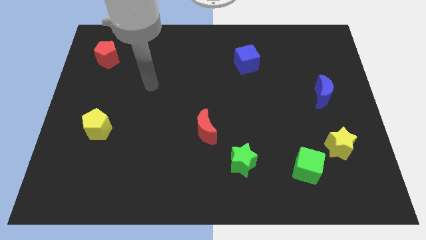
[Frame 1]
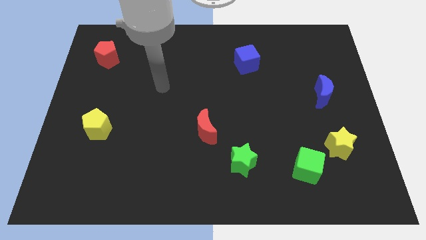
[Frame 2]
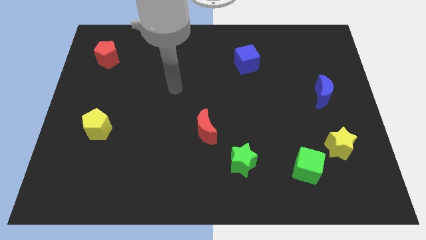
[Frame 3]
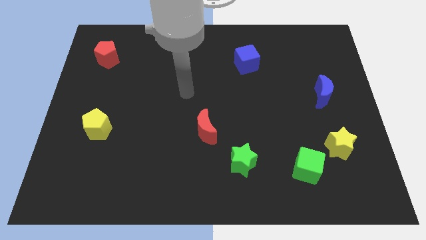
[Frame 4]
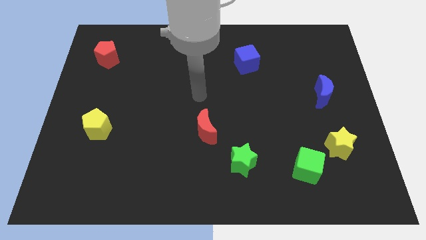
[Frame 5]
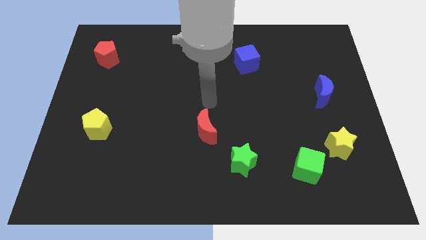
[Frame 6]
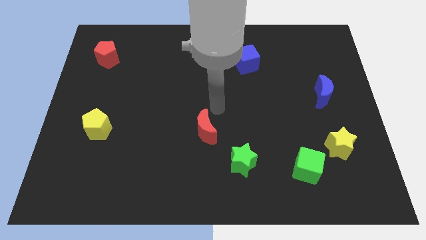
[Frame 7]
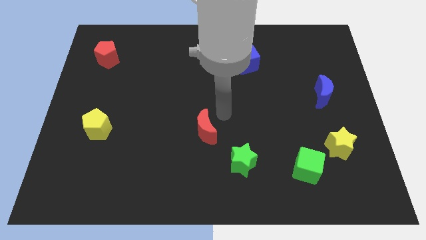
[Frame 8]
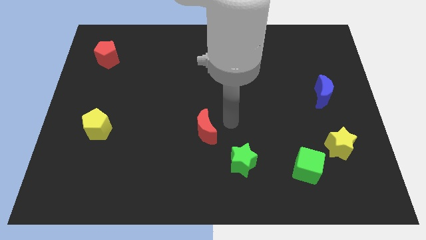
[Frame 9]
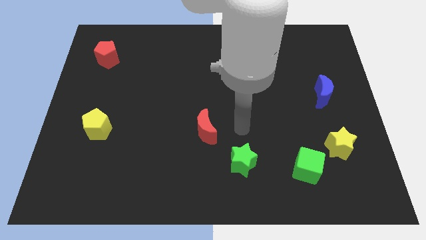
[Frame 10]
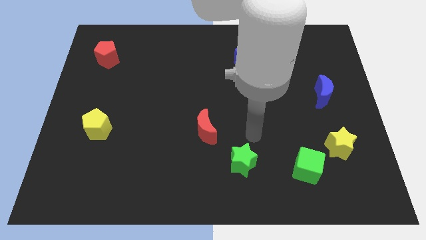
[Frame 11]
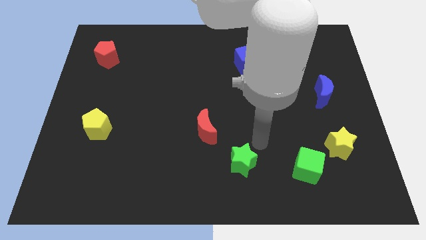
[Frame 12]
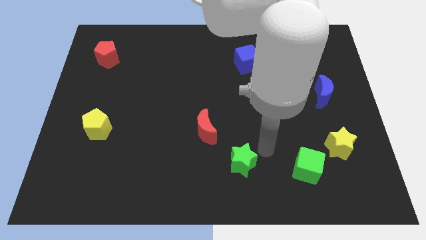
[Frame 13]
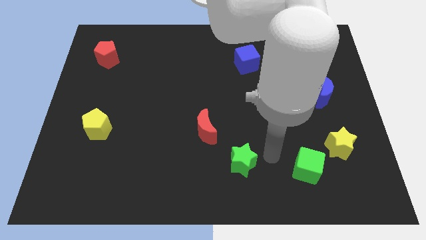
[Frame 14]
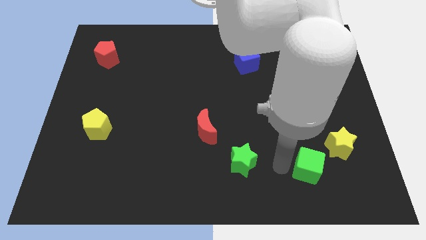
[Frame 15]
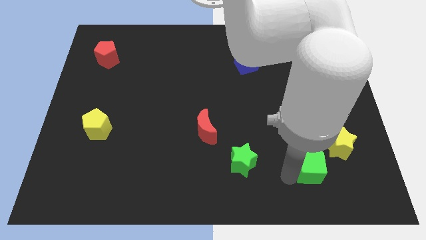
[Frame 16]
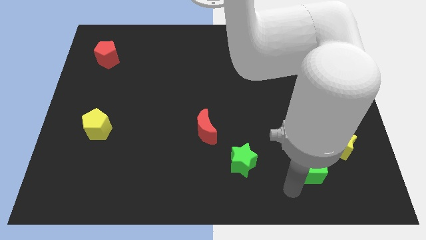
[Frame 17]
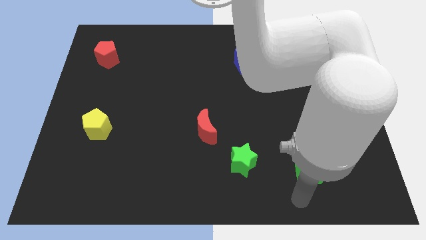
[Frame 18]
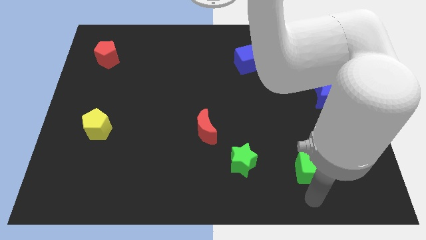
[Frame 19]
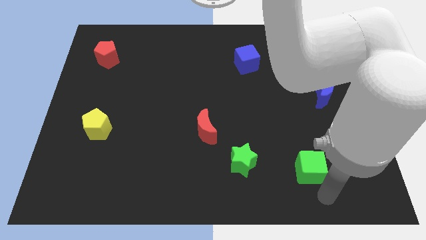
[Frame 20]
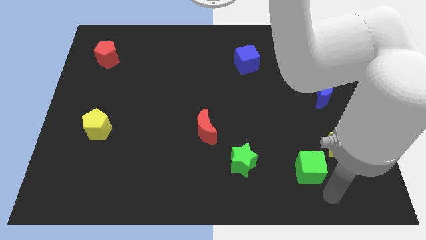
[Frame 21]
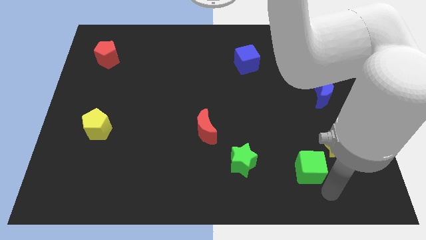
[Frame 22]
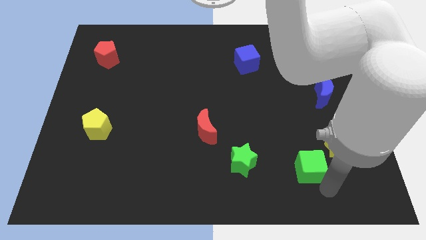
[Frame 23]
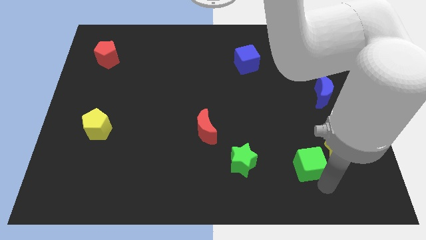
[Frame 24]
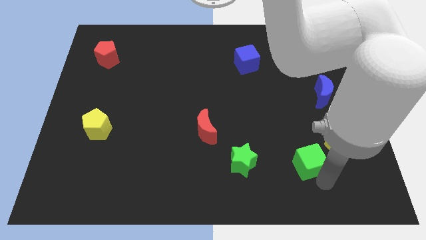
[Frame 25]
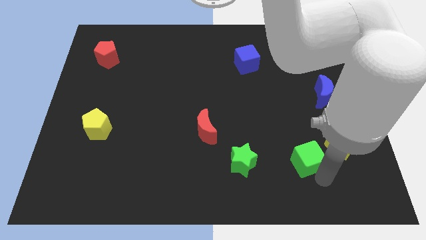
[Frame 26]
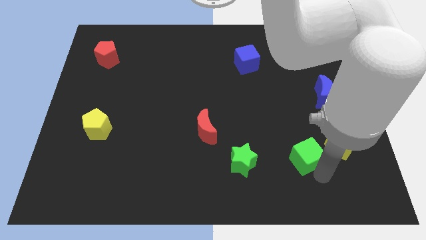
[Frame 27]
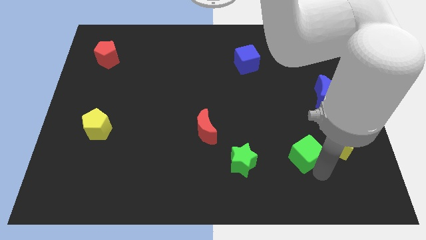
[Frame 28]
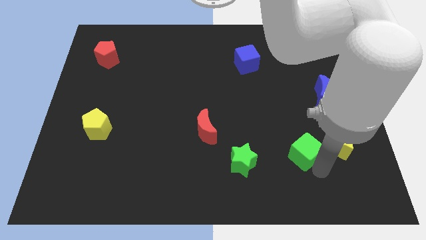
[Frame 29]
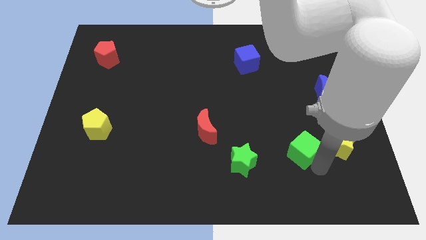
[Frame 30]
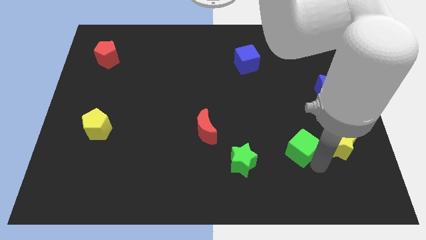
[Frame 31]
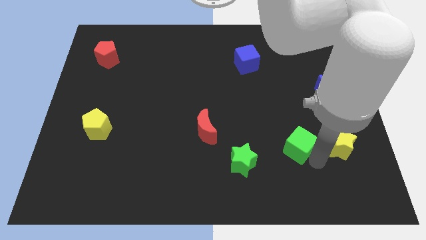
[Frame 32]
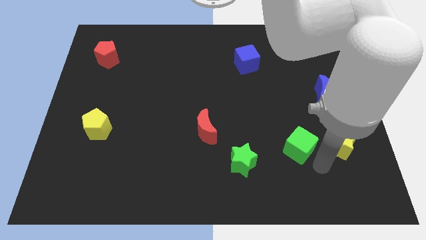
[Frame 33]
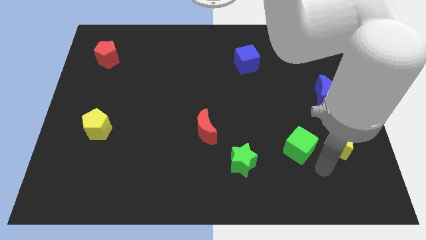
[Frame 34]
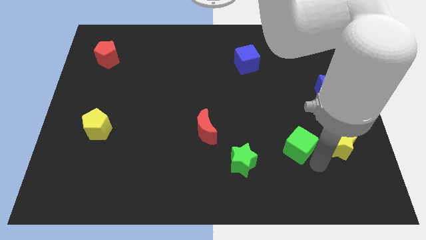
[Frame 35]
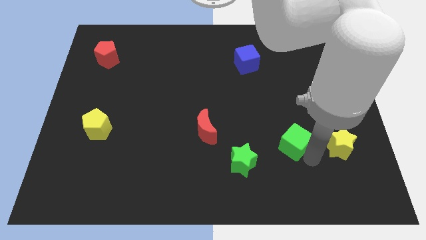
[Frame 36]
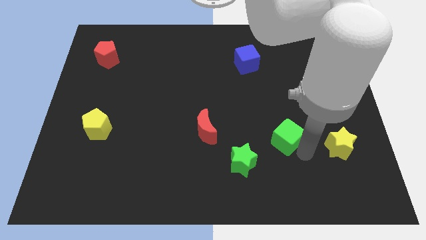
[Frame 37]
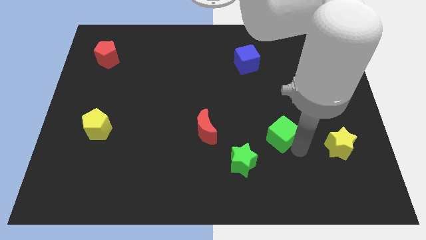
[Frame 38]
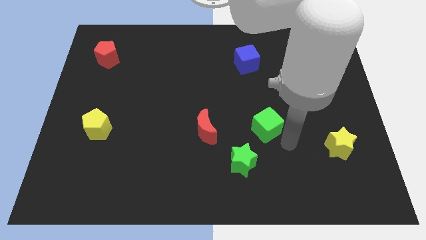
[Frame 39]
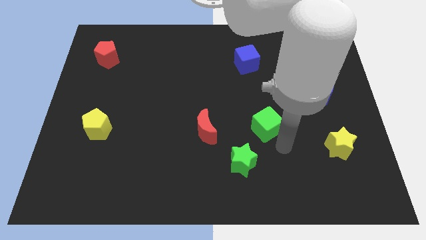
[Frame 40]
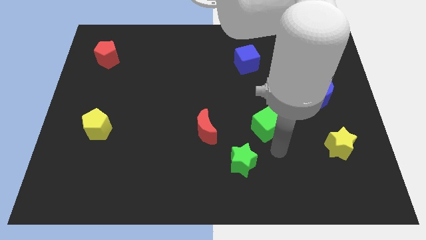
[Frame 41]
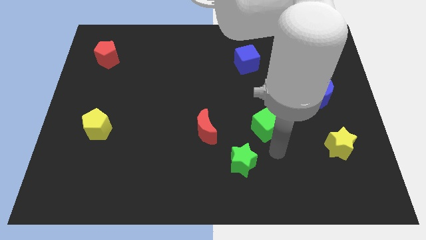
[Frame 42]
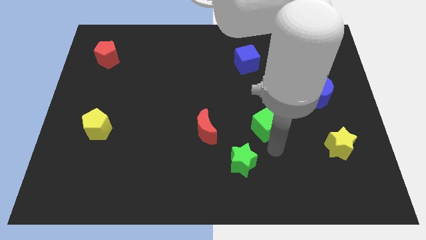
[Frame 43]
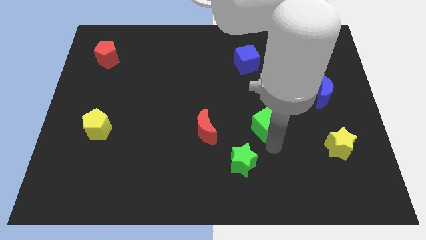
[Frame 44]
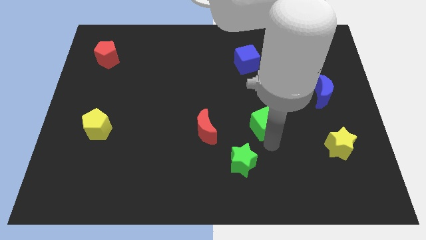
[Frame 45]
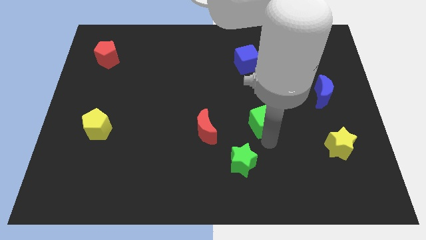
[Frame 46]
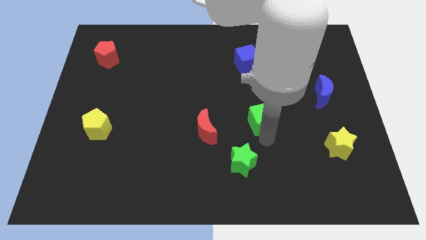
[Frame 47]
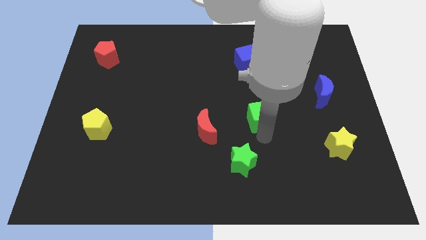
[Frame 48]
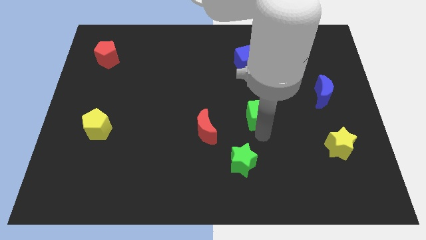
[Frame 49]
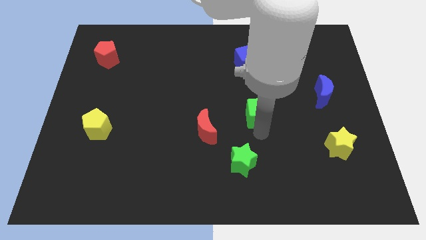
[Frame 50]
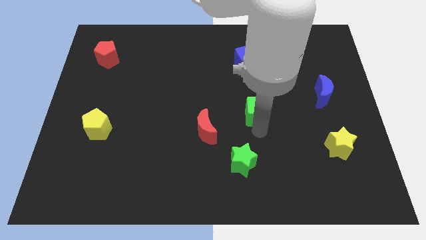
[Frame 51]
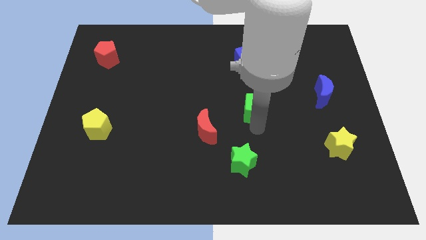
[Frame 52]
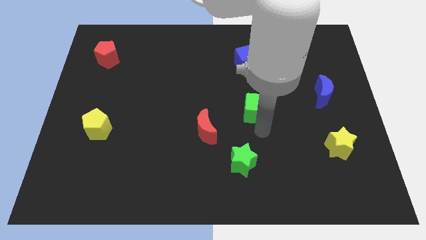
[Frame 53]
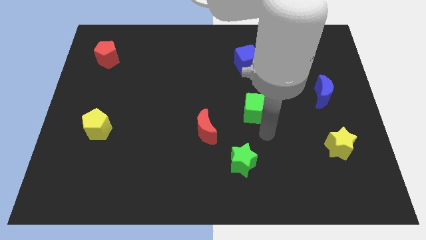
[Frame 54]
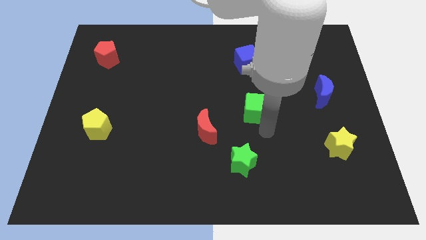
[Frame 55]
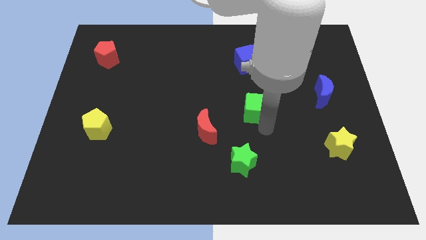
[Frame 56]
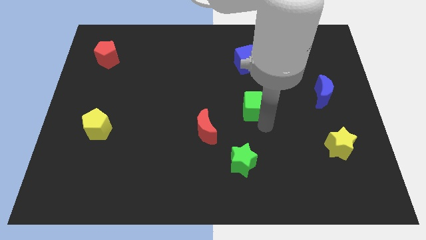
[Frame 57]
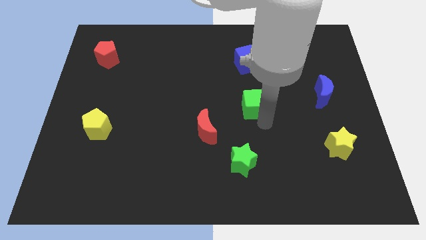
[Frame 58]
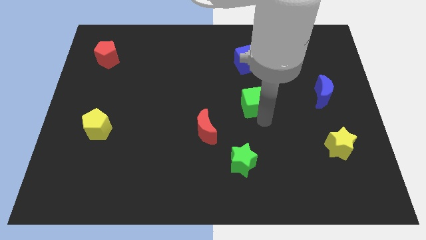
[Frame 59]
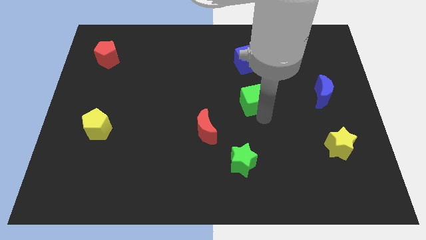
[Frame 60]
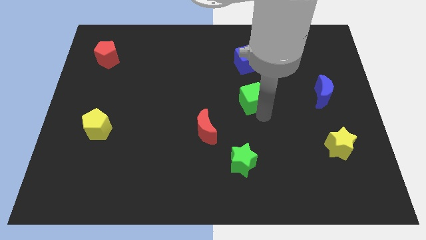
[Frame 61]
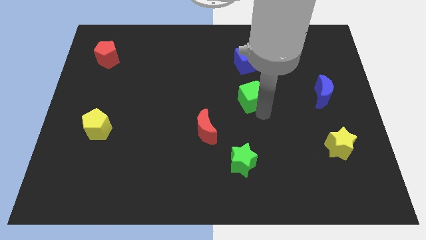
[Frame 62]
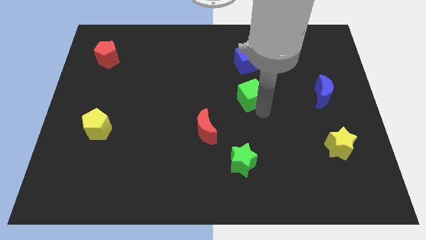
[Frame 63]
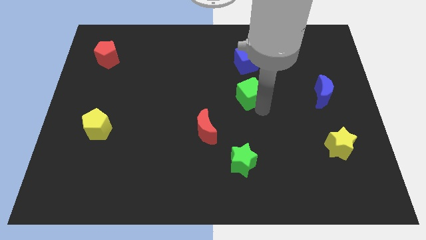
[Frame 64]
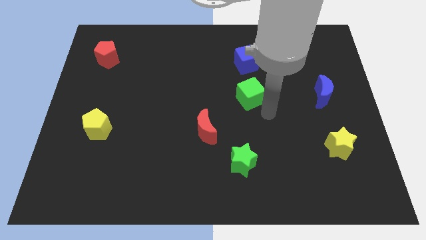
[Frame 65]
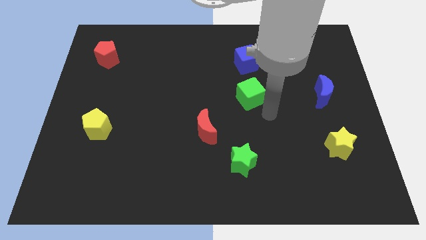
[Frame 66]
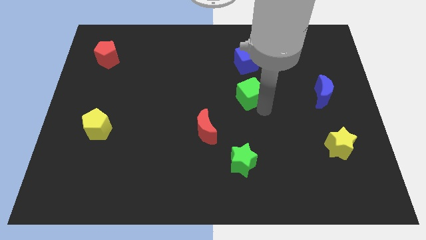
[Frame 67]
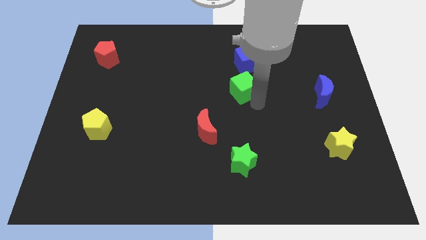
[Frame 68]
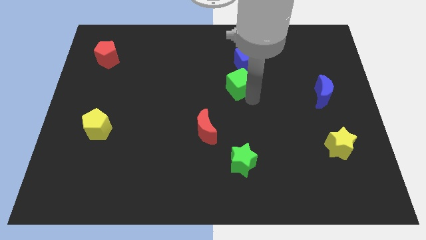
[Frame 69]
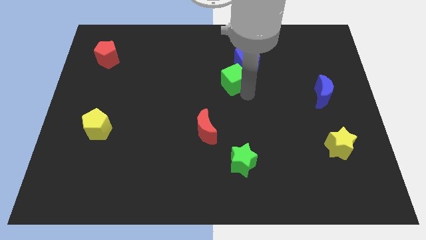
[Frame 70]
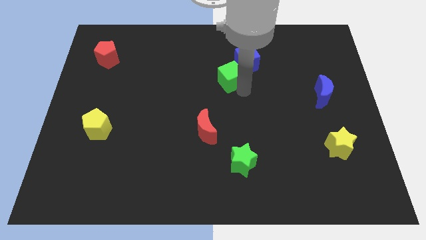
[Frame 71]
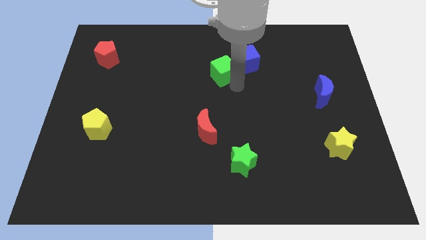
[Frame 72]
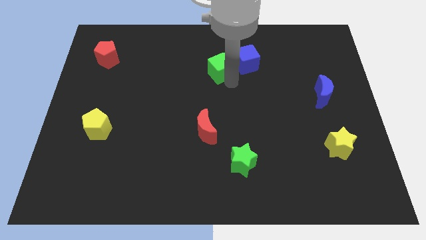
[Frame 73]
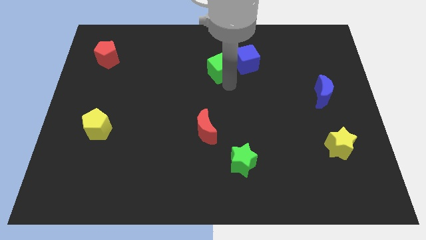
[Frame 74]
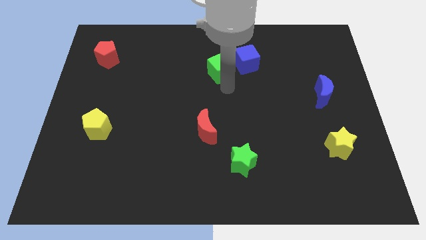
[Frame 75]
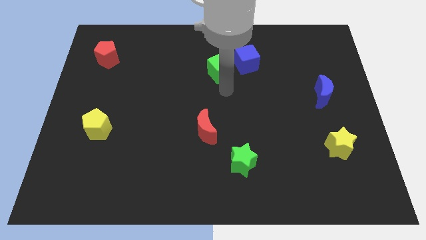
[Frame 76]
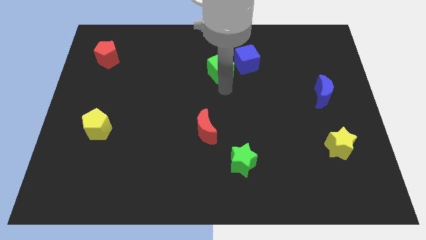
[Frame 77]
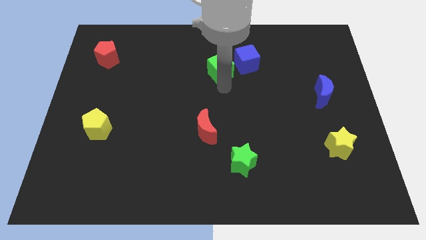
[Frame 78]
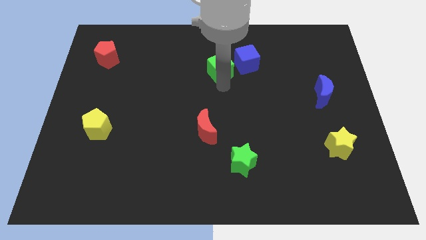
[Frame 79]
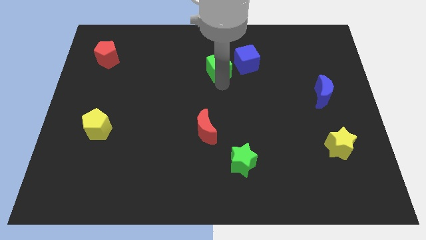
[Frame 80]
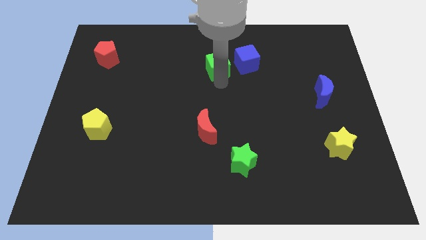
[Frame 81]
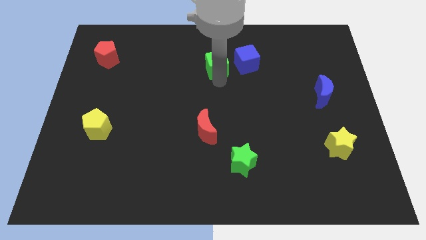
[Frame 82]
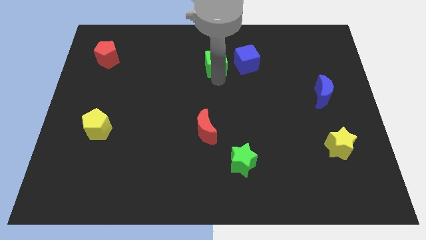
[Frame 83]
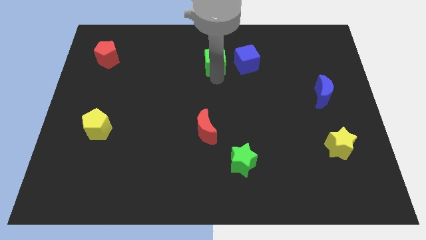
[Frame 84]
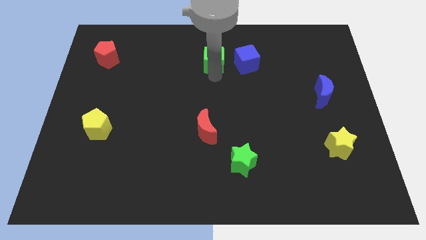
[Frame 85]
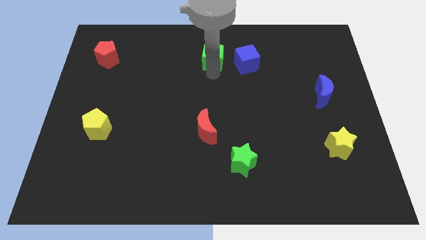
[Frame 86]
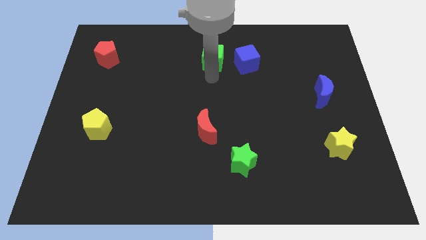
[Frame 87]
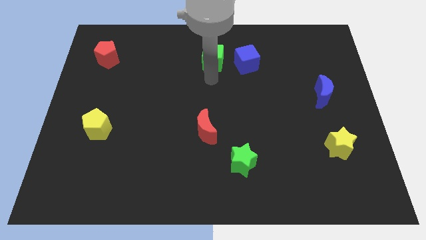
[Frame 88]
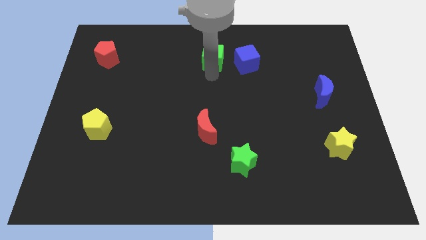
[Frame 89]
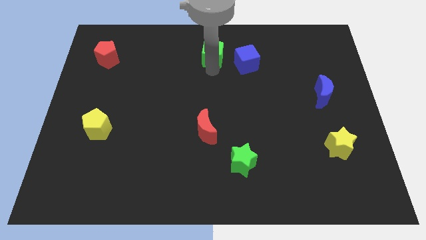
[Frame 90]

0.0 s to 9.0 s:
slide the green cube to the towards your base
